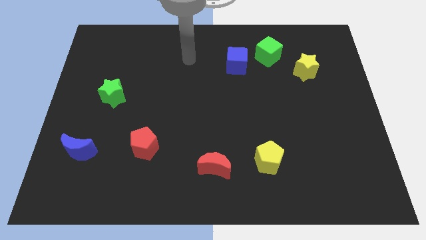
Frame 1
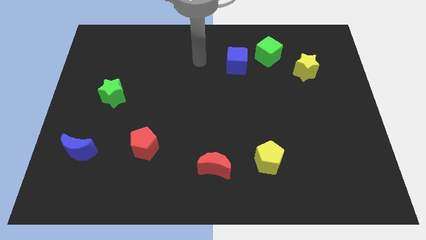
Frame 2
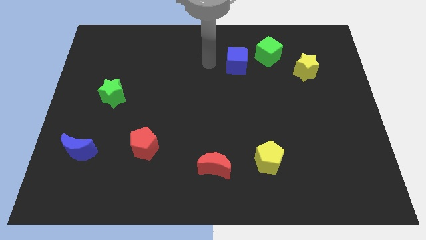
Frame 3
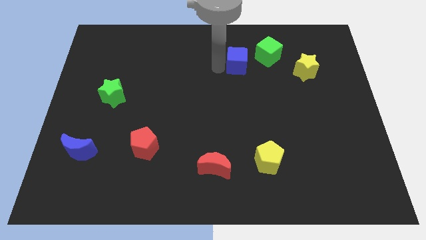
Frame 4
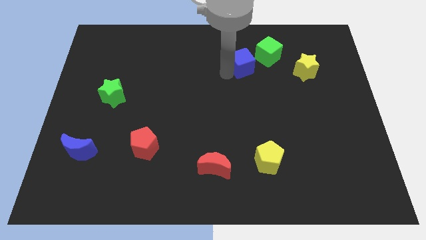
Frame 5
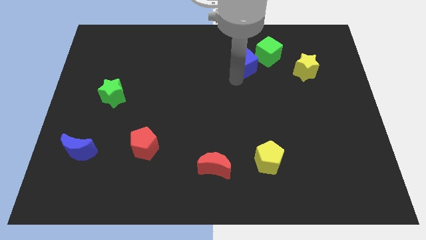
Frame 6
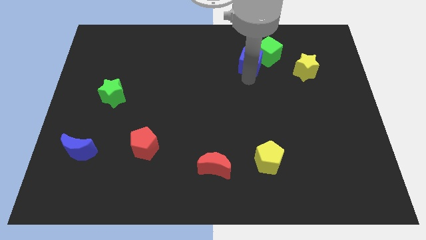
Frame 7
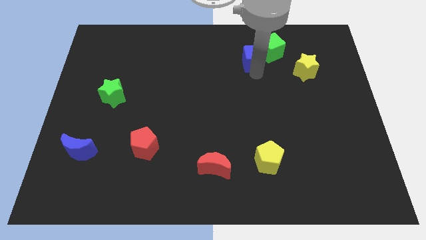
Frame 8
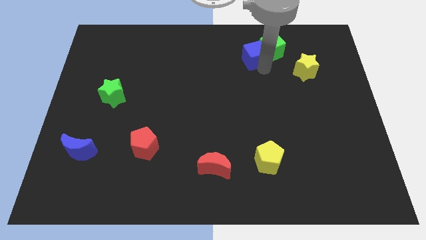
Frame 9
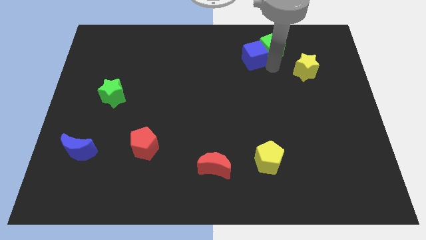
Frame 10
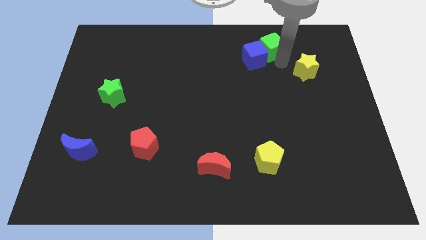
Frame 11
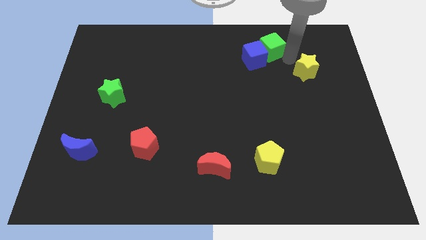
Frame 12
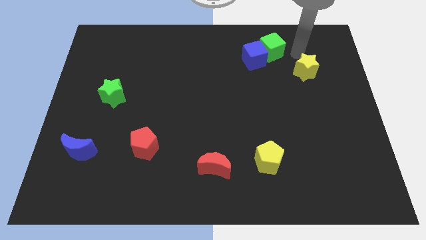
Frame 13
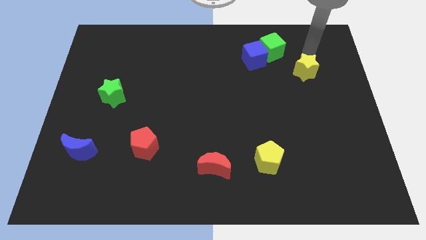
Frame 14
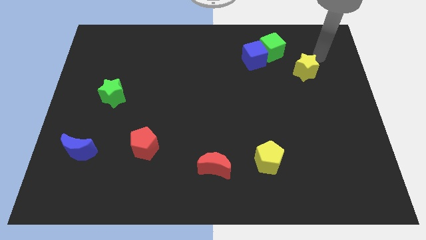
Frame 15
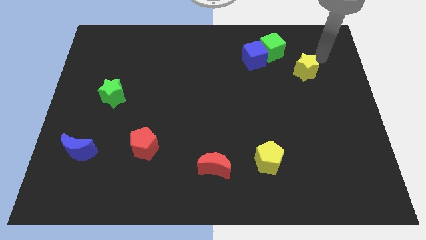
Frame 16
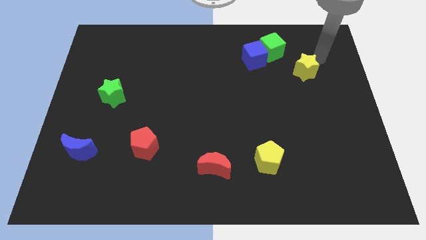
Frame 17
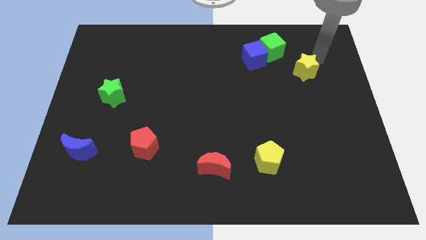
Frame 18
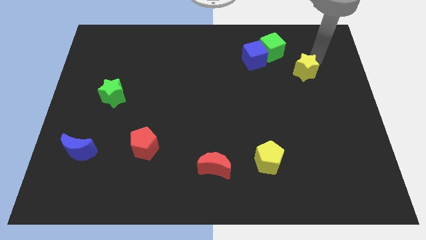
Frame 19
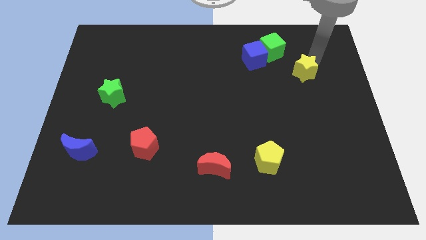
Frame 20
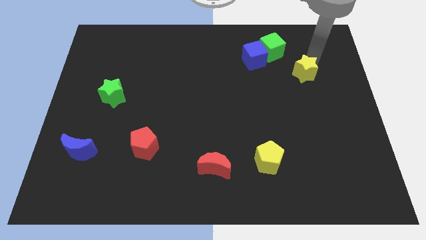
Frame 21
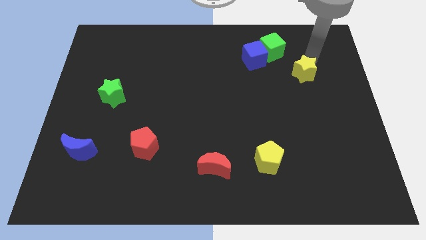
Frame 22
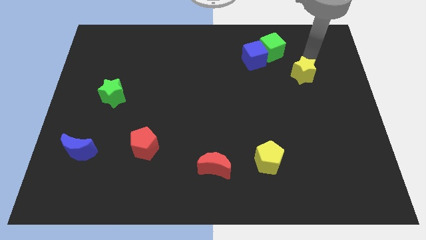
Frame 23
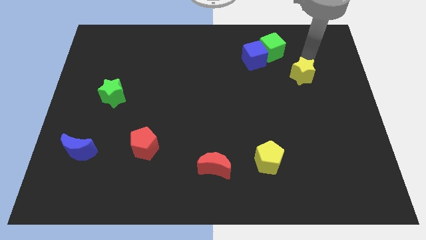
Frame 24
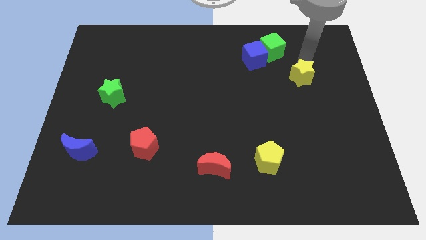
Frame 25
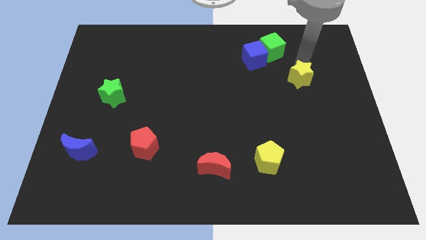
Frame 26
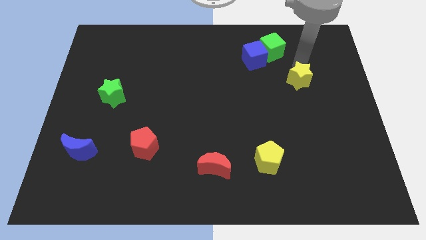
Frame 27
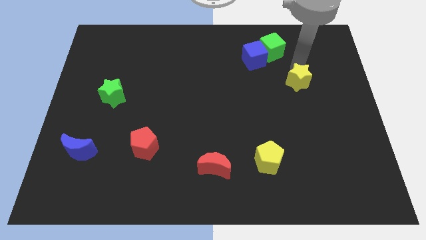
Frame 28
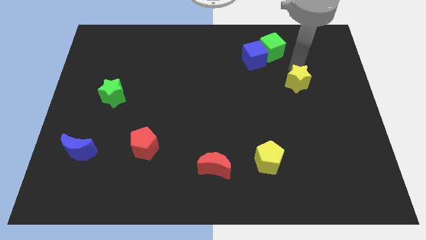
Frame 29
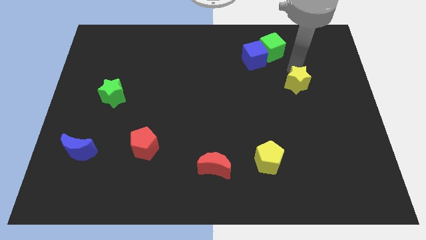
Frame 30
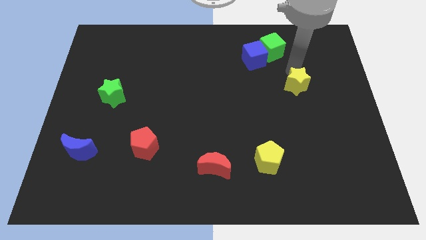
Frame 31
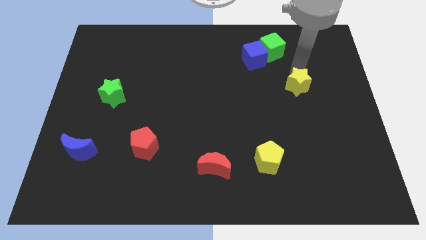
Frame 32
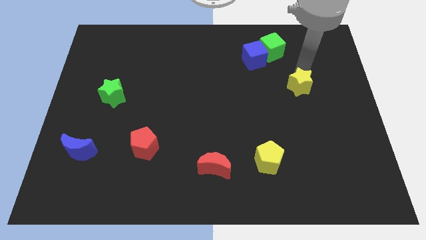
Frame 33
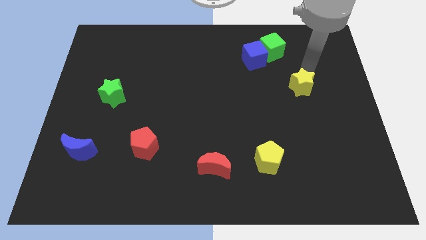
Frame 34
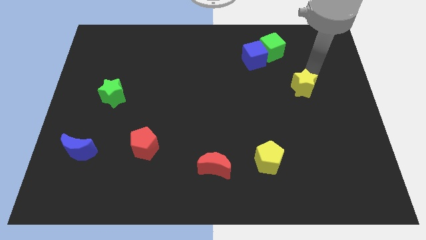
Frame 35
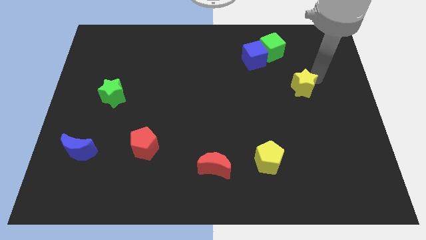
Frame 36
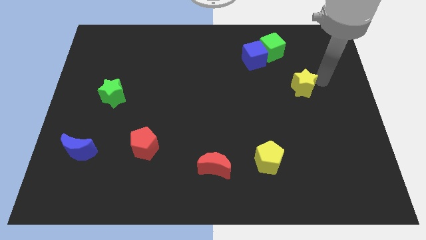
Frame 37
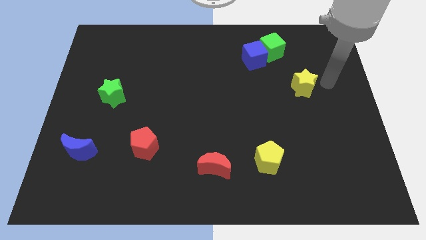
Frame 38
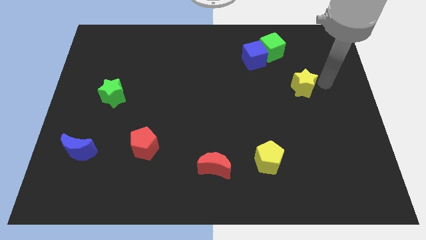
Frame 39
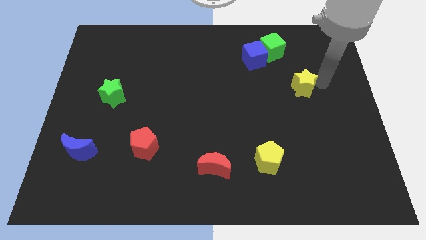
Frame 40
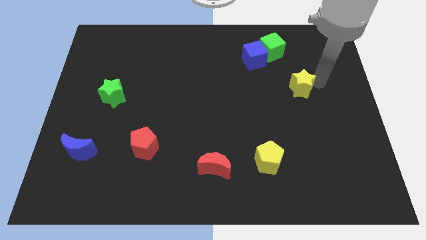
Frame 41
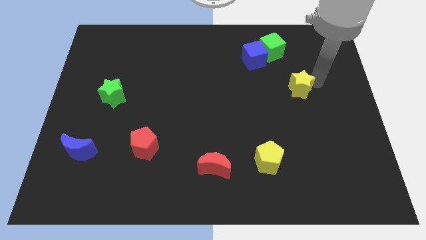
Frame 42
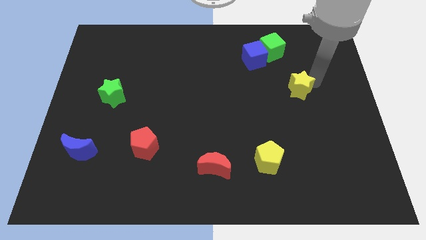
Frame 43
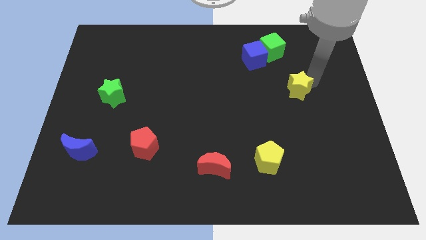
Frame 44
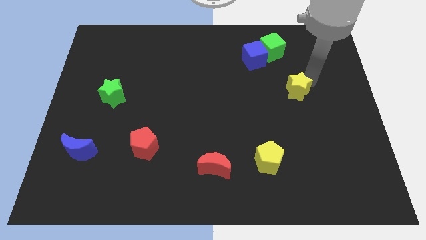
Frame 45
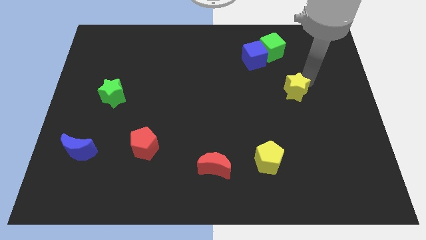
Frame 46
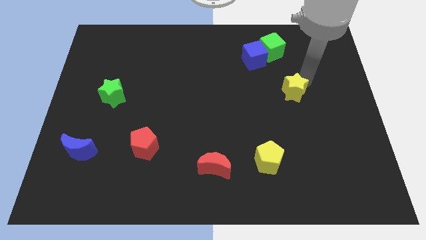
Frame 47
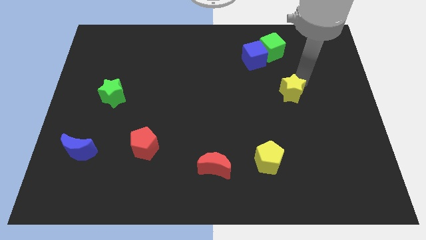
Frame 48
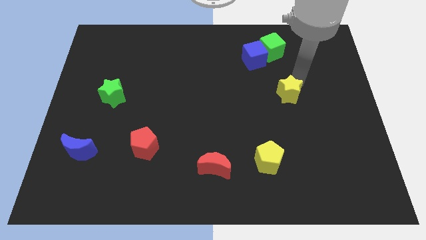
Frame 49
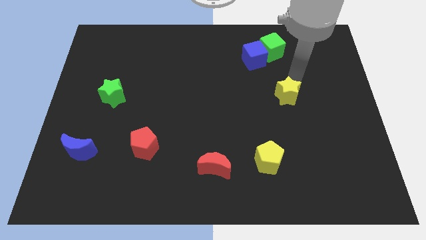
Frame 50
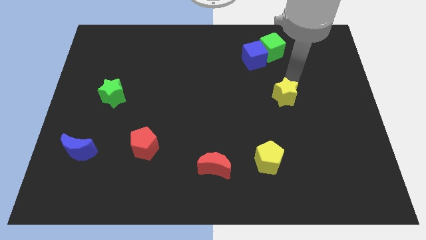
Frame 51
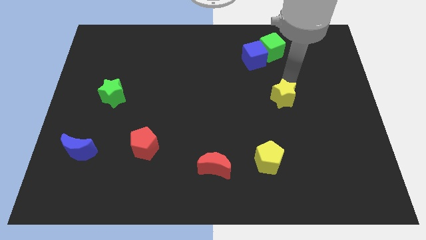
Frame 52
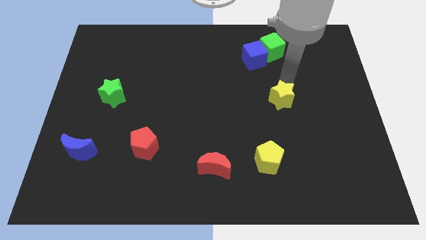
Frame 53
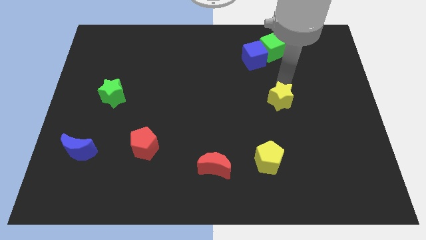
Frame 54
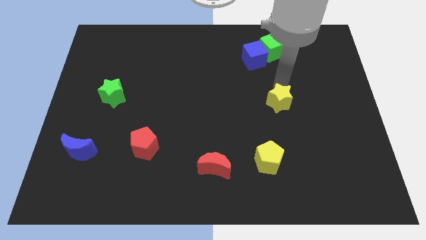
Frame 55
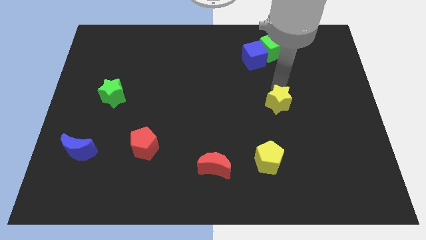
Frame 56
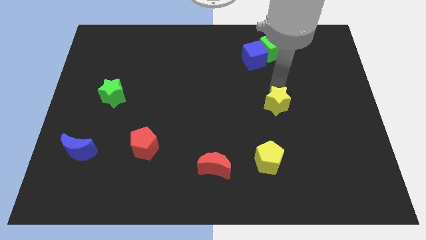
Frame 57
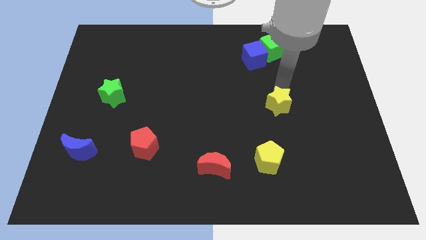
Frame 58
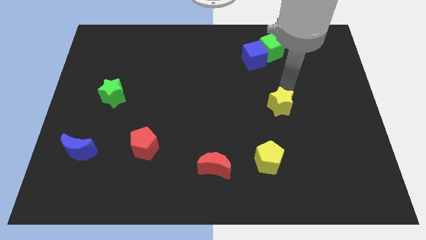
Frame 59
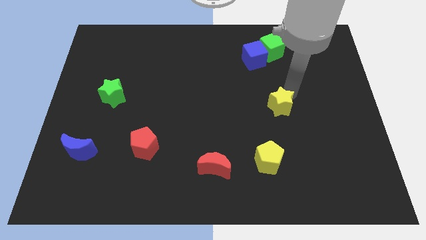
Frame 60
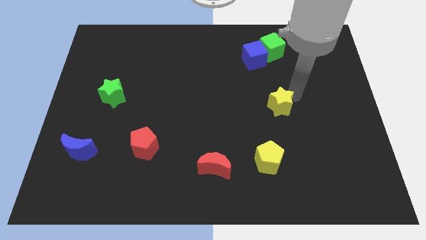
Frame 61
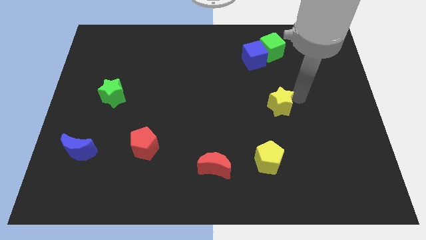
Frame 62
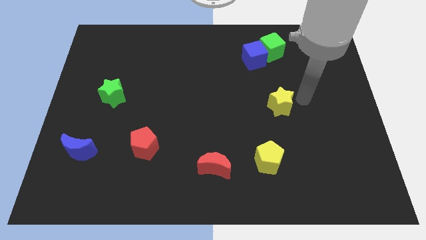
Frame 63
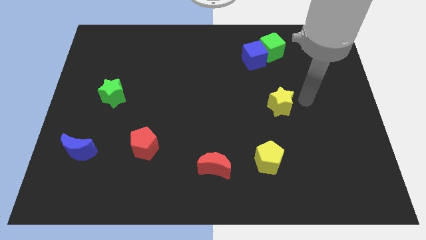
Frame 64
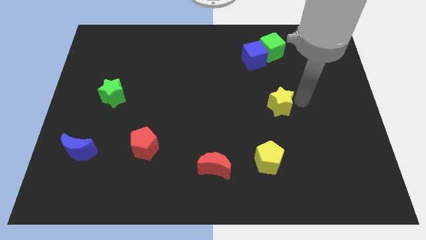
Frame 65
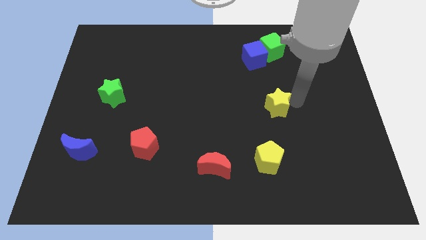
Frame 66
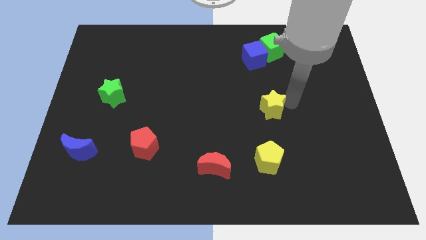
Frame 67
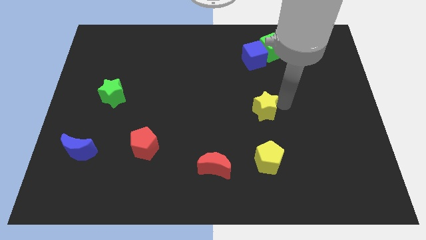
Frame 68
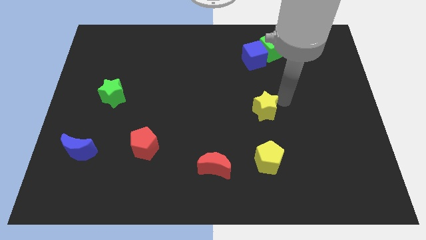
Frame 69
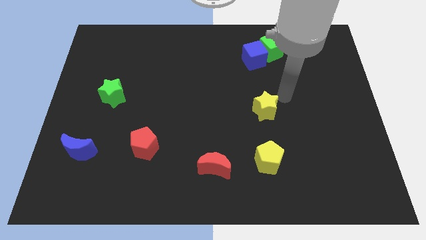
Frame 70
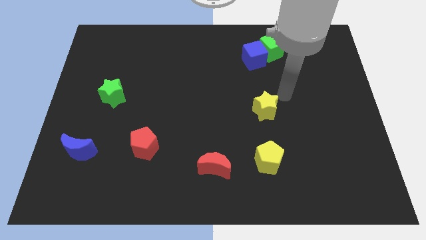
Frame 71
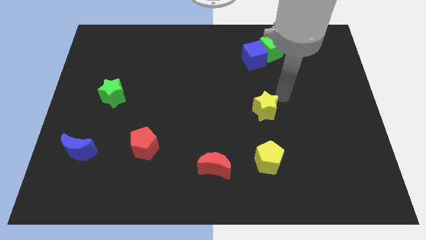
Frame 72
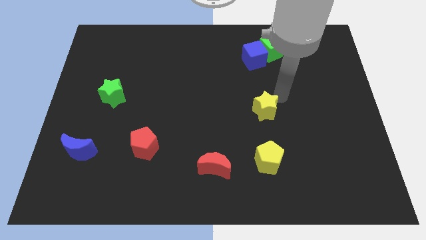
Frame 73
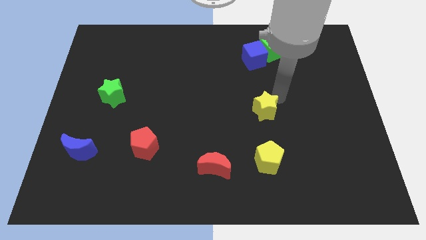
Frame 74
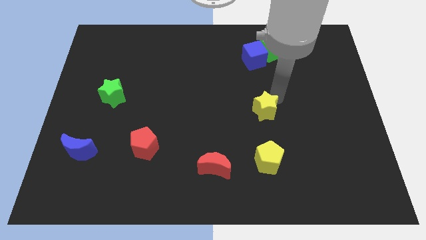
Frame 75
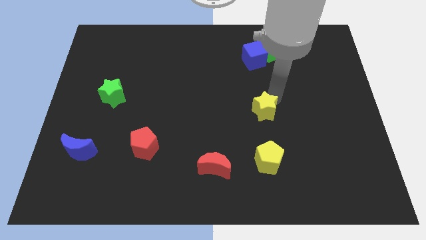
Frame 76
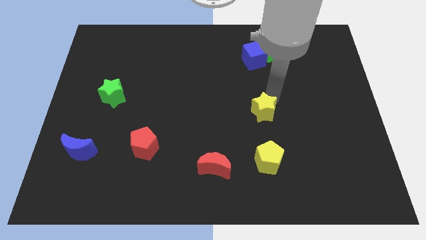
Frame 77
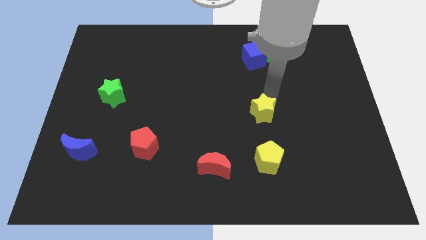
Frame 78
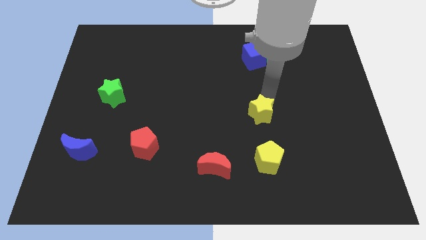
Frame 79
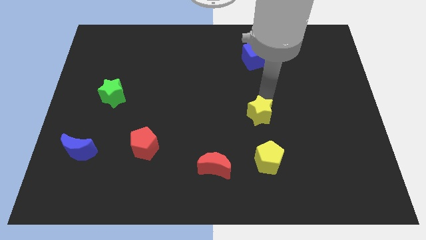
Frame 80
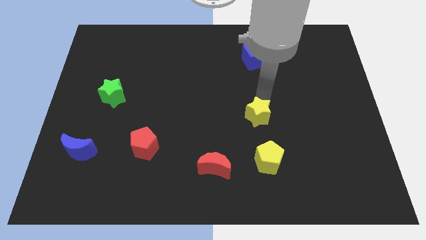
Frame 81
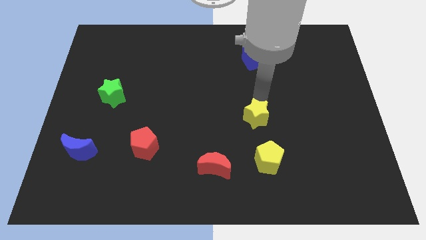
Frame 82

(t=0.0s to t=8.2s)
move the yellow star diagonally downwards and to the left
